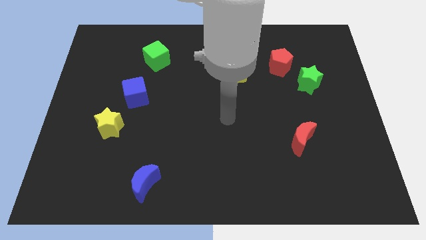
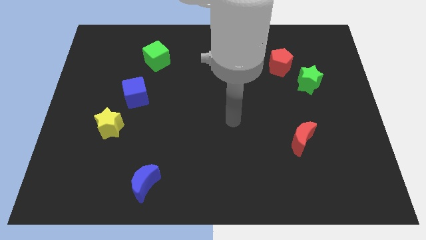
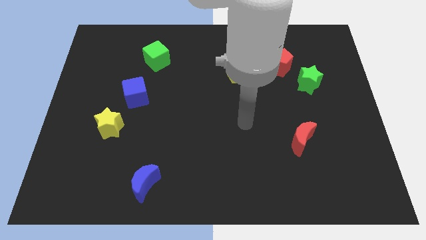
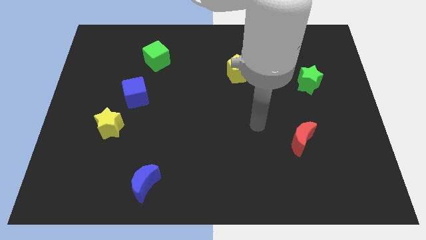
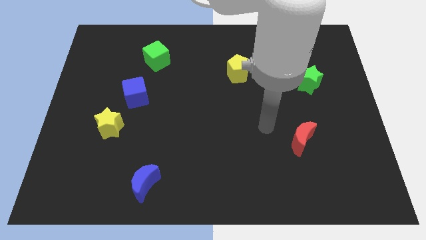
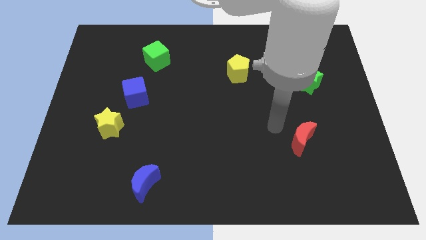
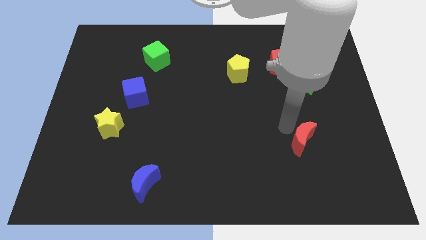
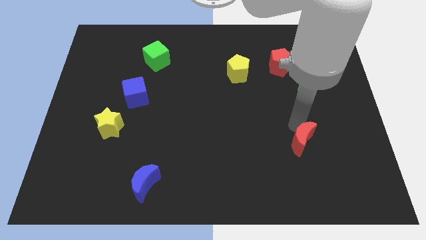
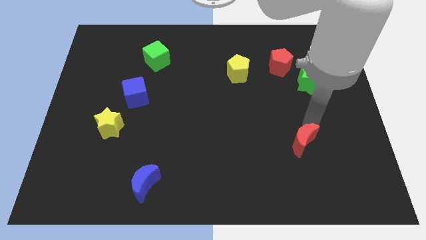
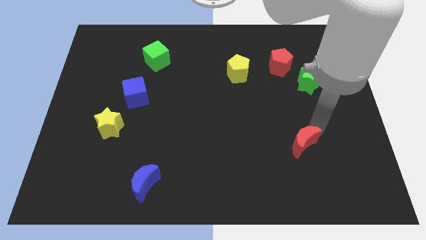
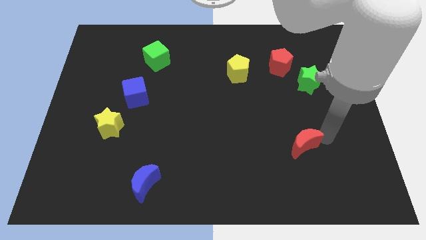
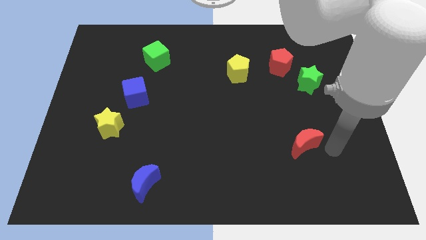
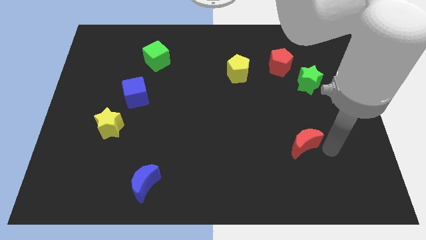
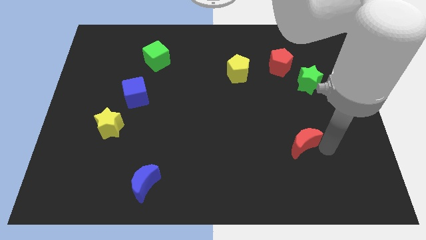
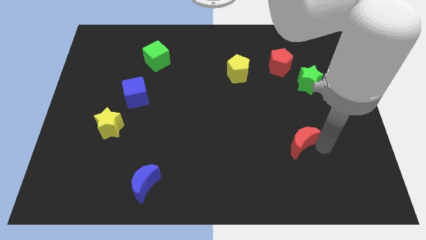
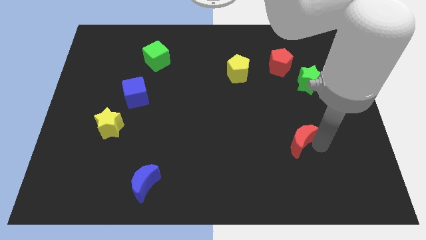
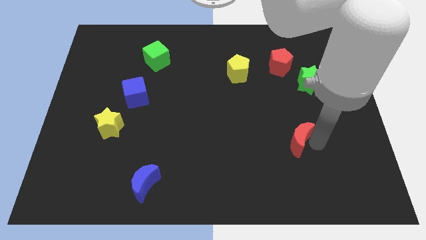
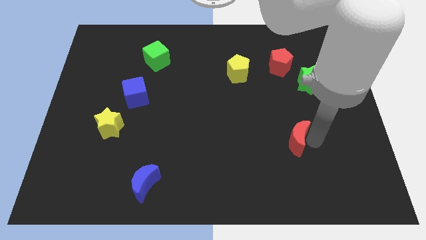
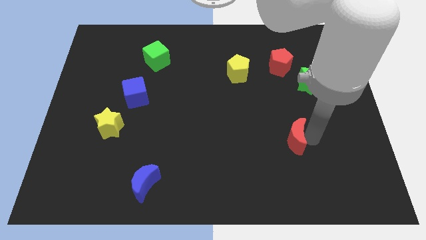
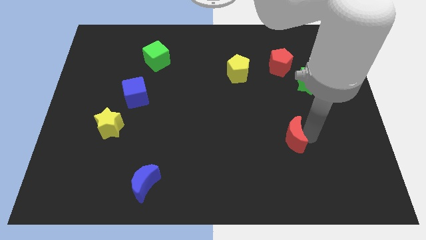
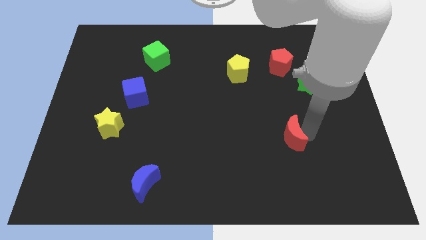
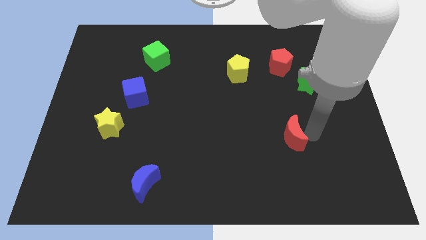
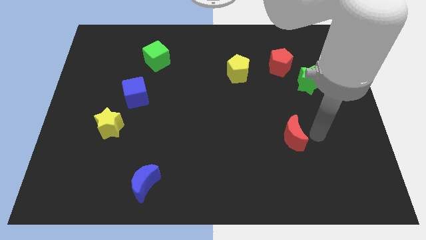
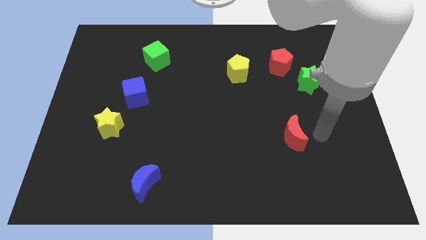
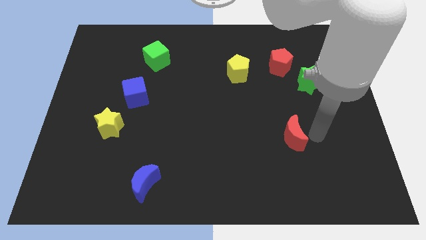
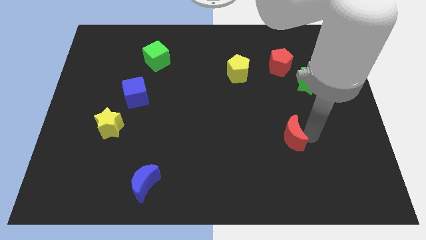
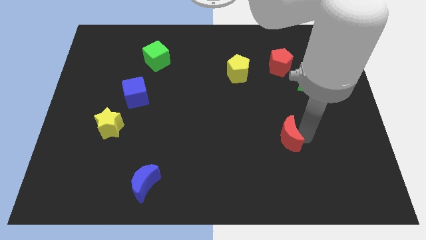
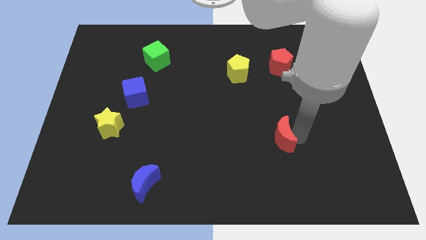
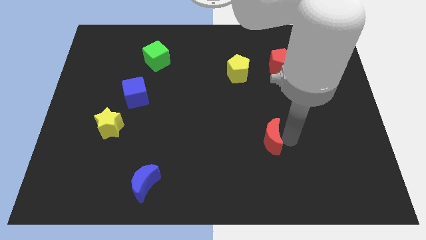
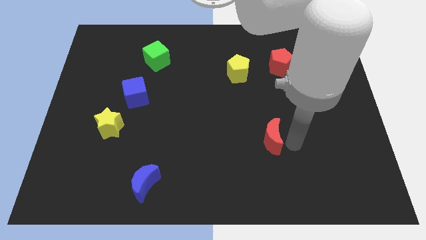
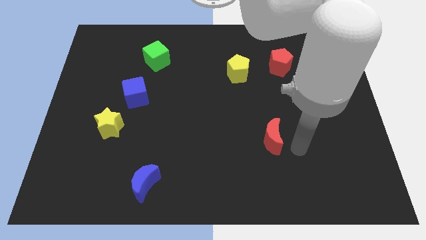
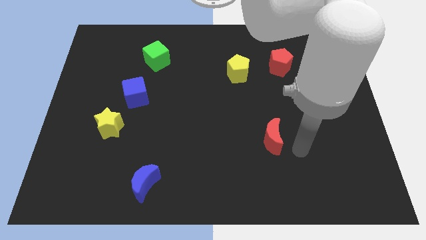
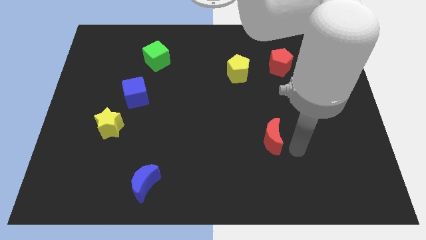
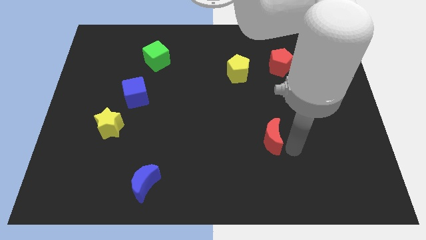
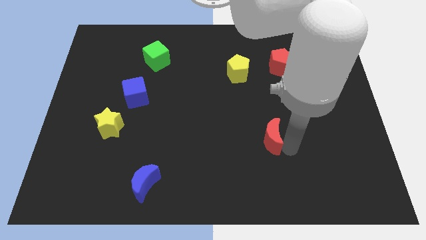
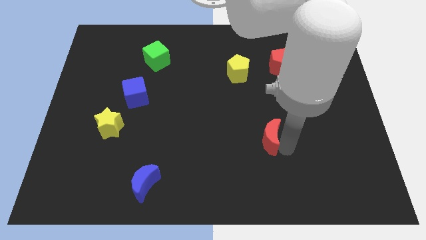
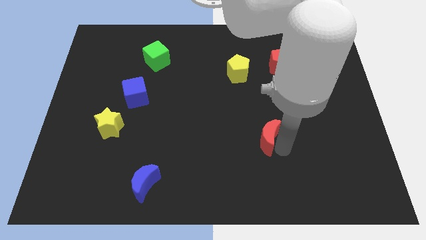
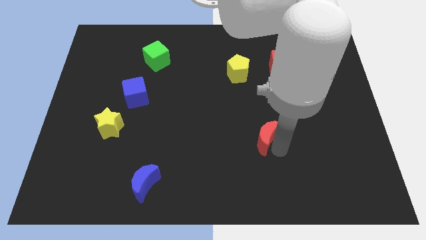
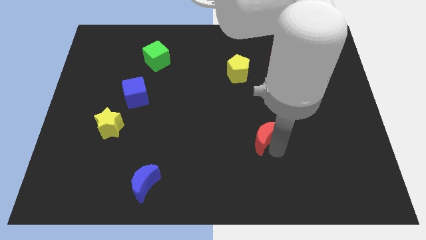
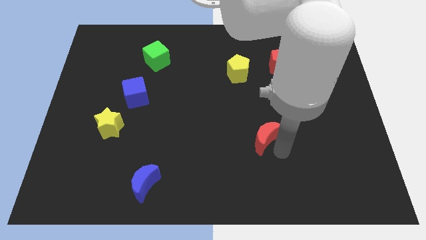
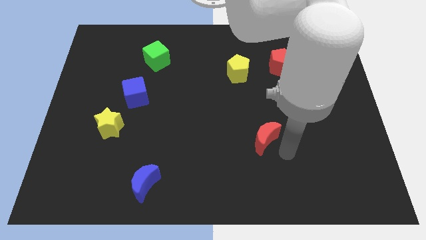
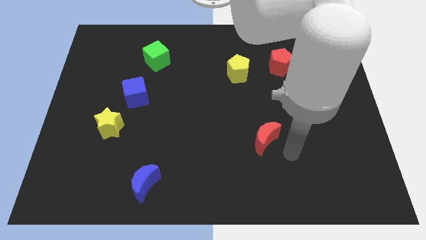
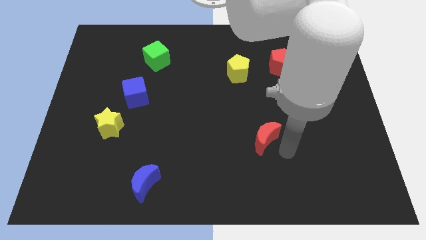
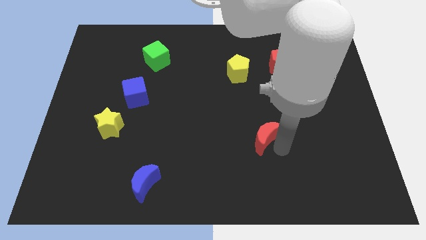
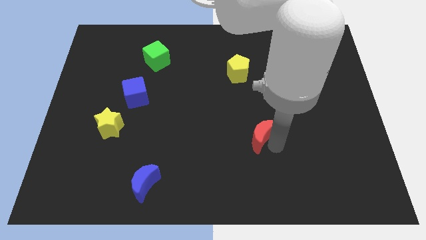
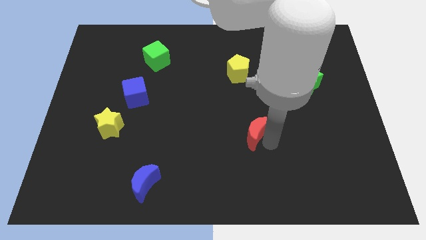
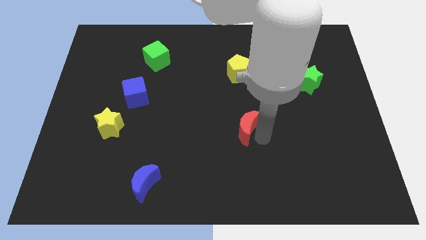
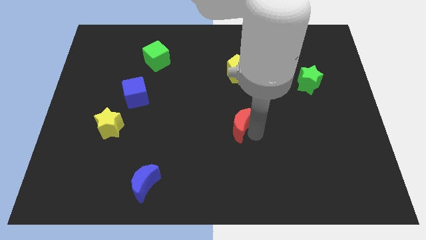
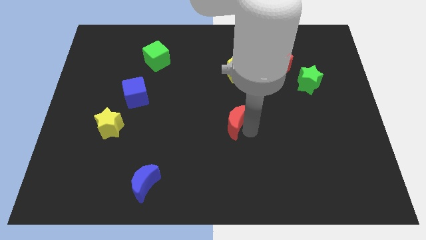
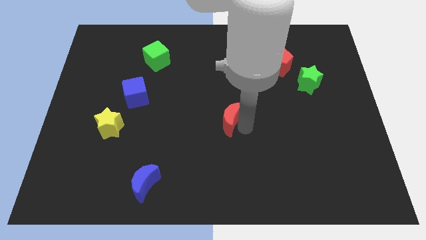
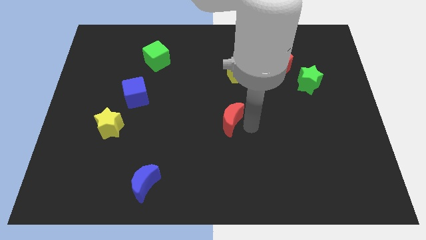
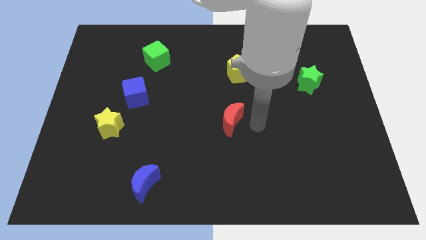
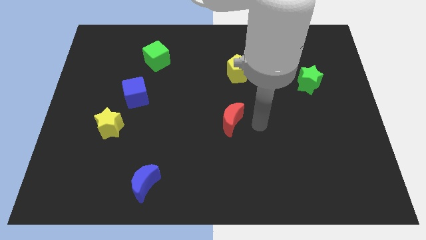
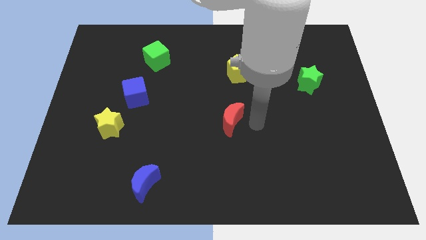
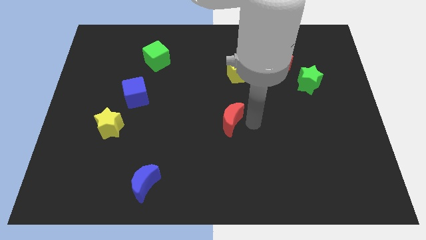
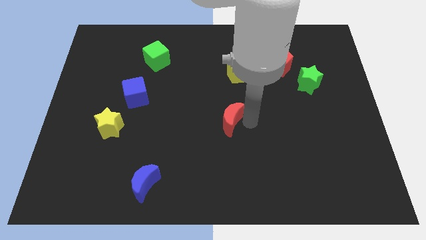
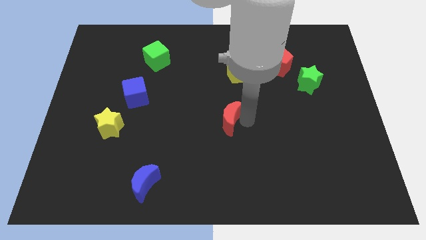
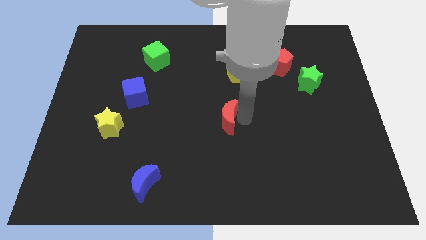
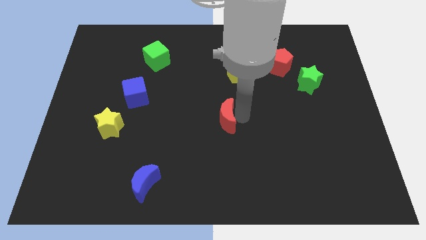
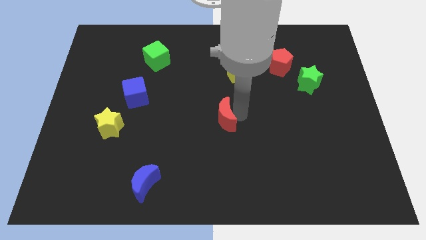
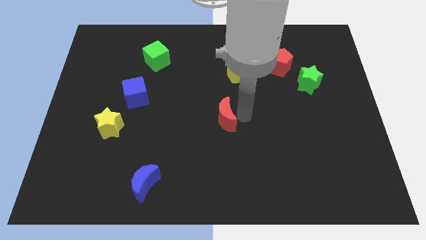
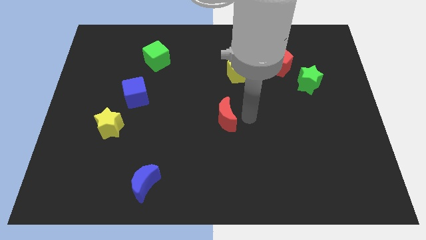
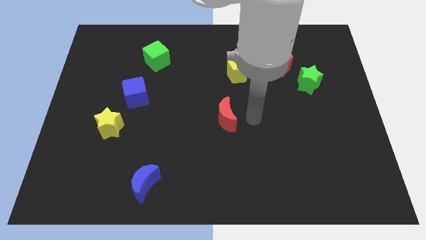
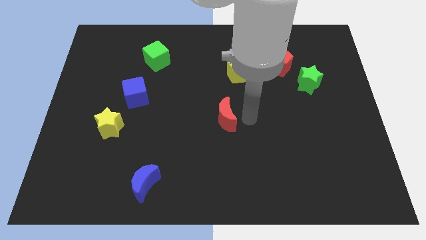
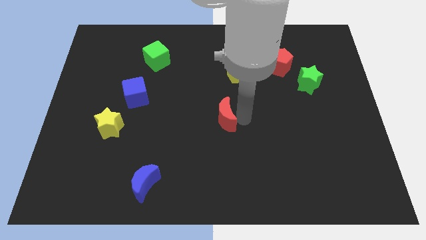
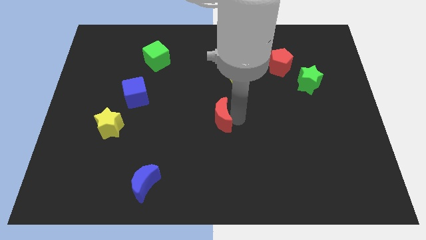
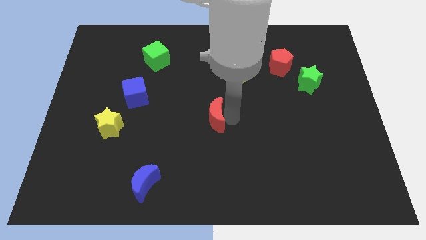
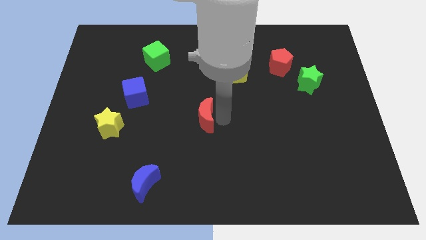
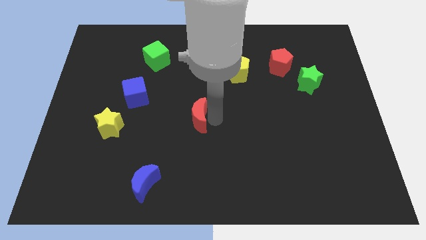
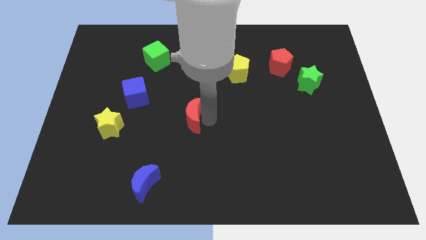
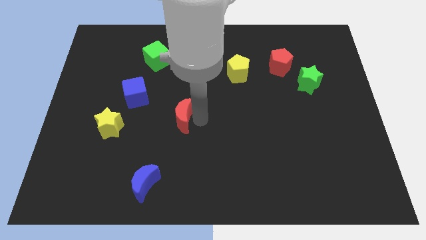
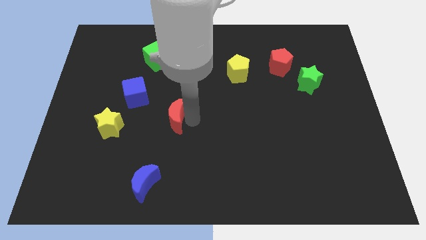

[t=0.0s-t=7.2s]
push the red moon diagonally down and to the right of the blue cube

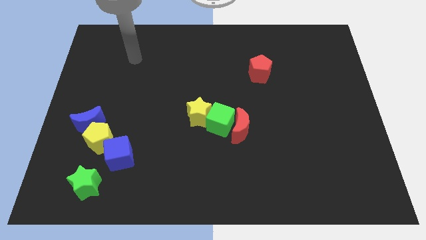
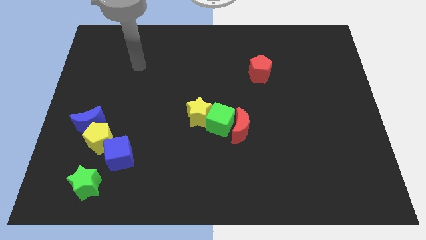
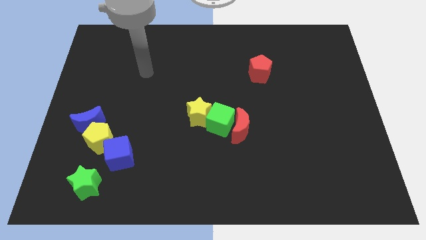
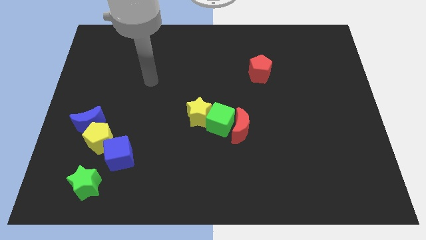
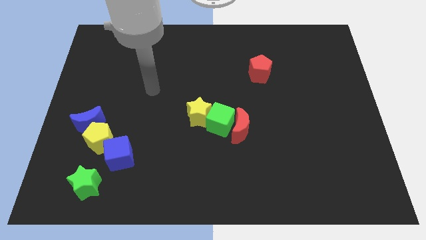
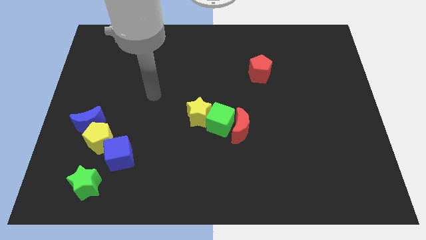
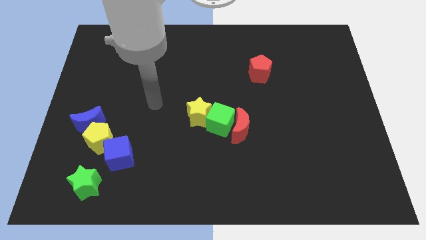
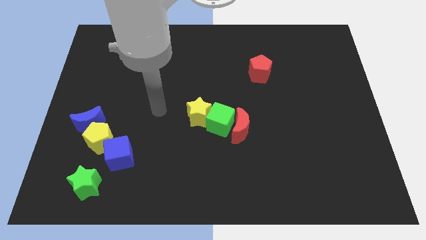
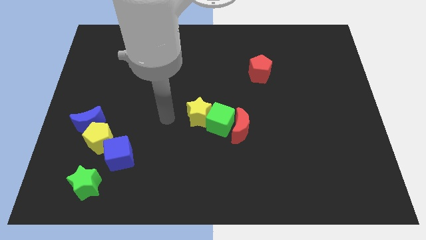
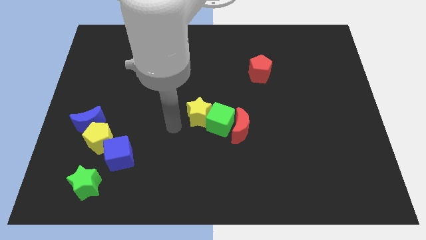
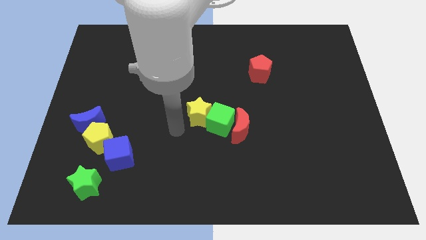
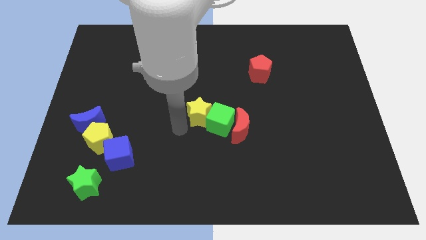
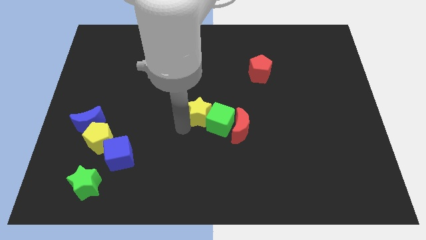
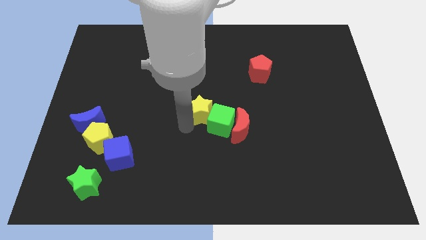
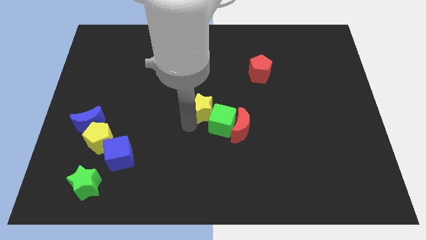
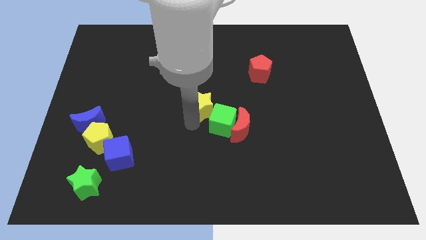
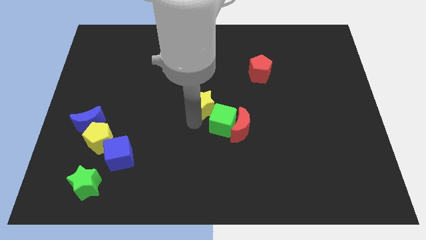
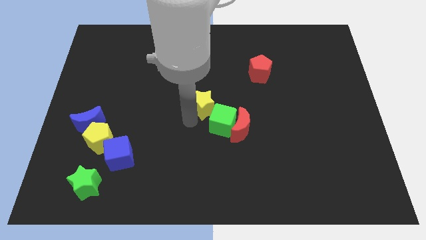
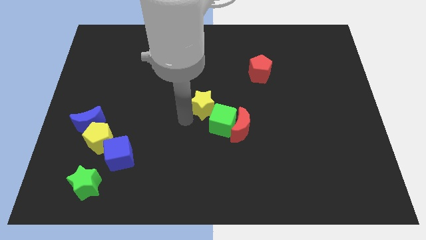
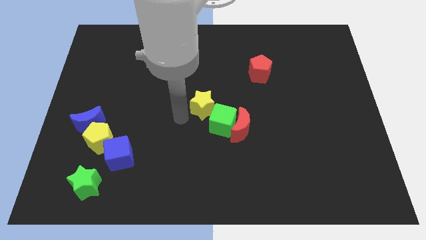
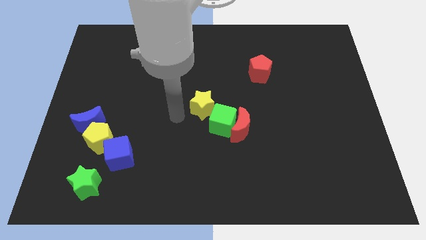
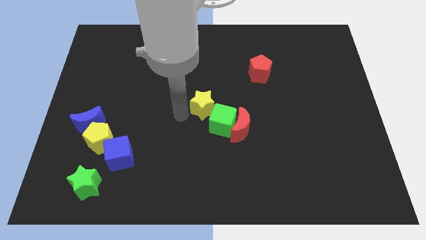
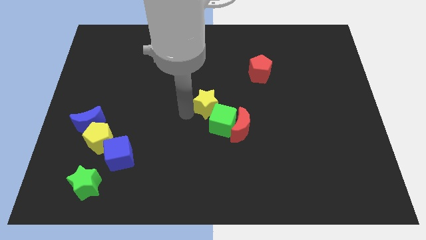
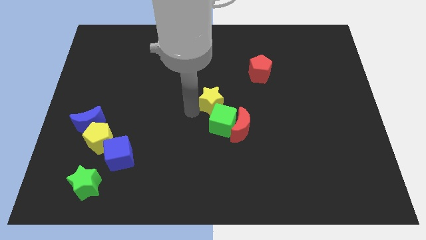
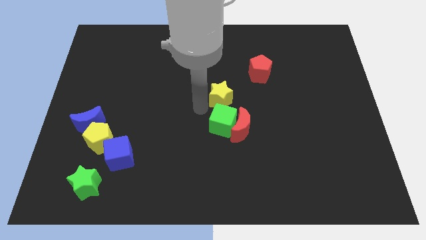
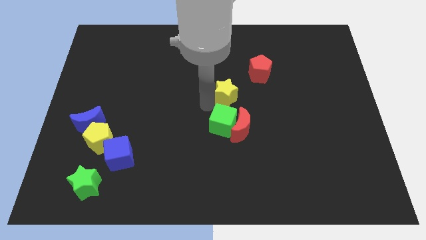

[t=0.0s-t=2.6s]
put the yellow star to the bottom left side of the red pentagon
